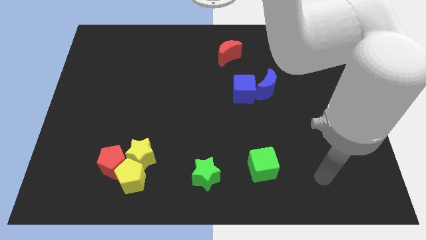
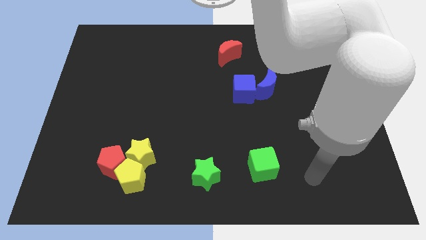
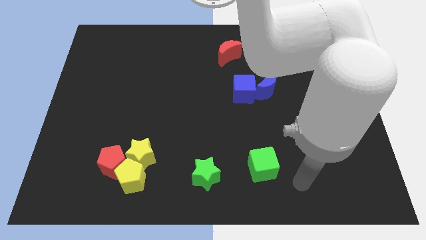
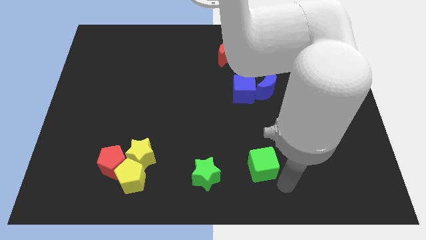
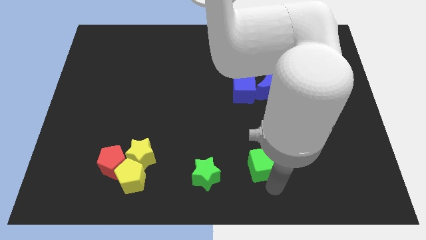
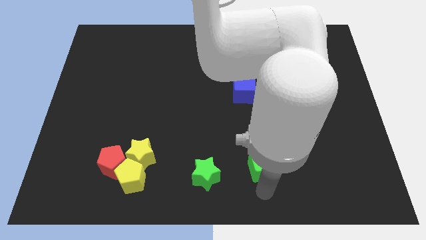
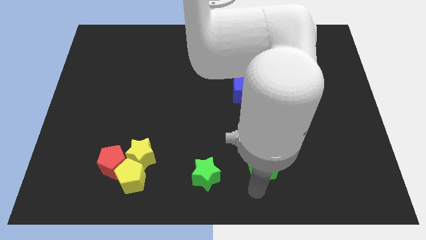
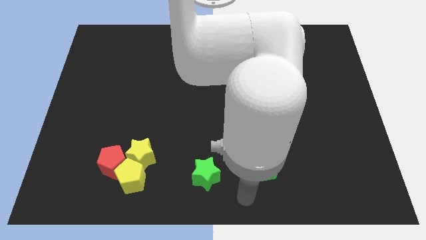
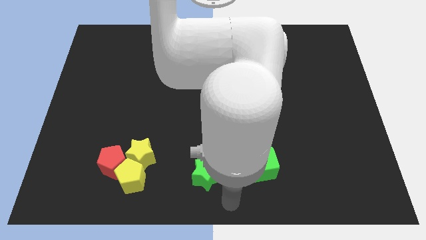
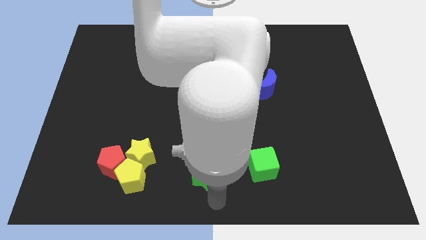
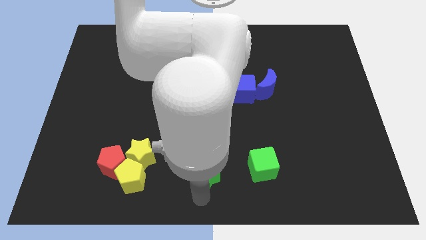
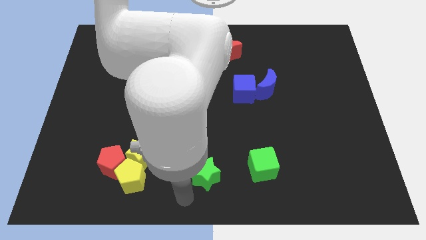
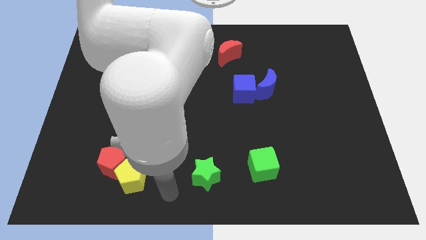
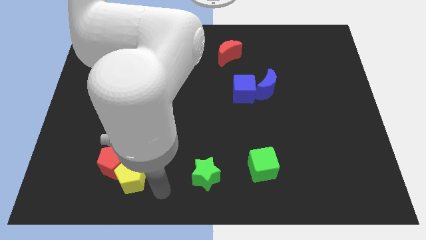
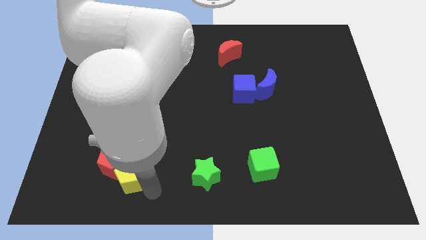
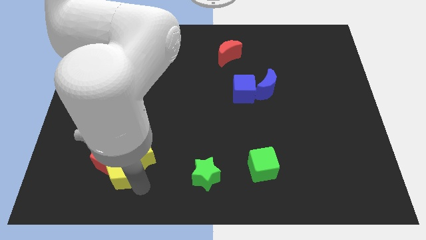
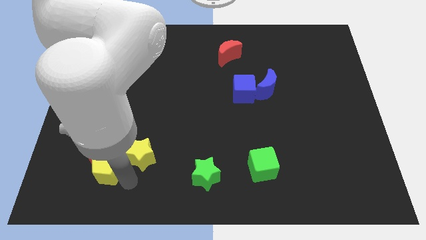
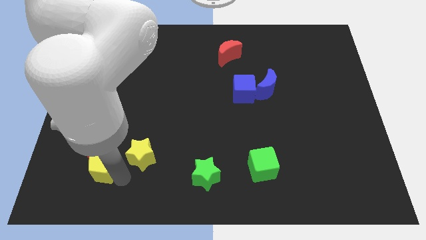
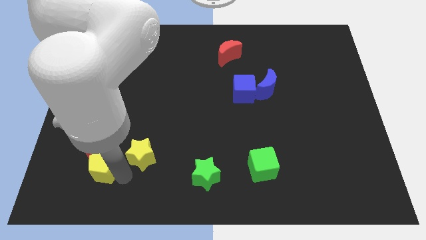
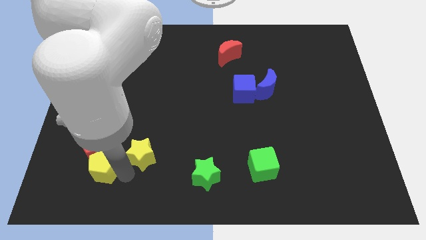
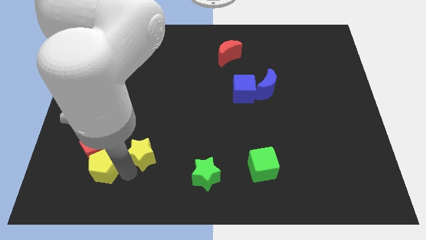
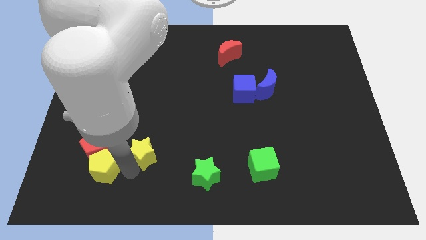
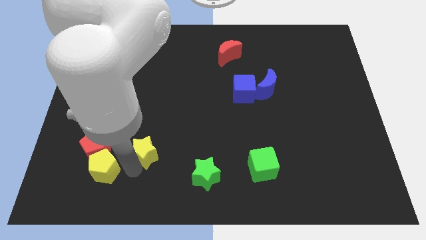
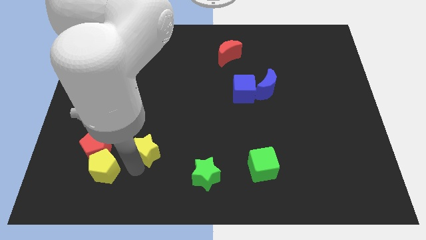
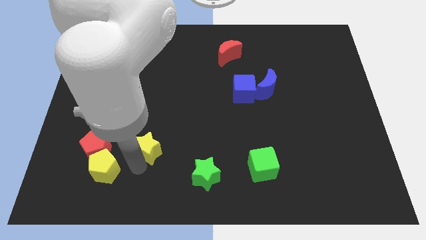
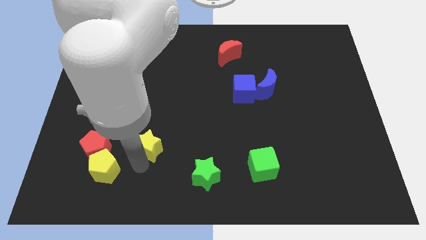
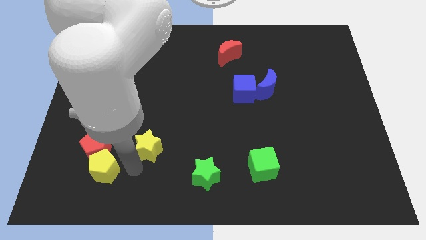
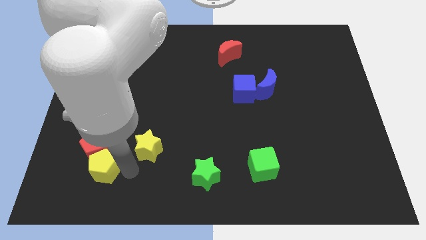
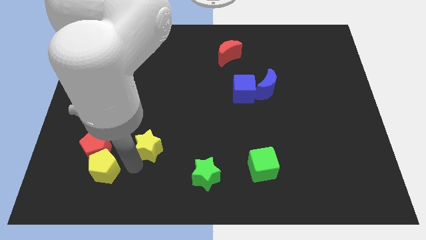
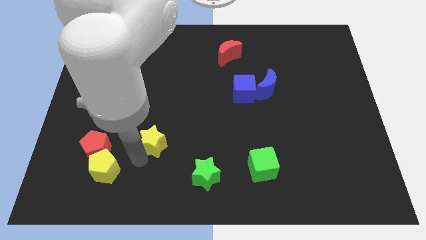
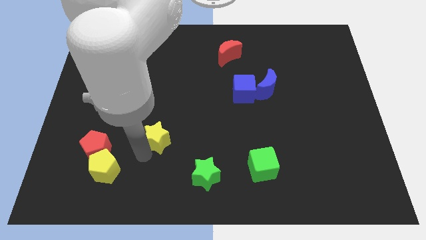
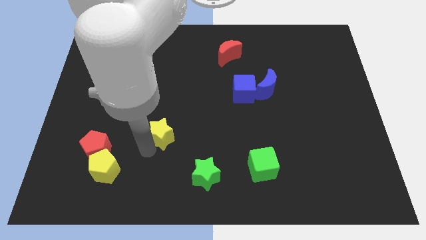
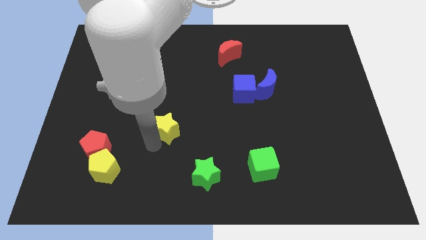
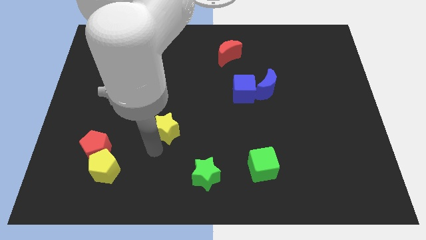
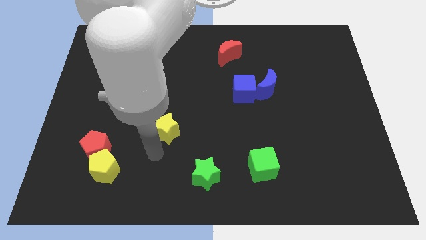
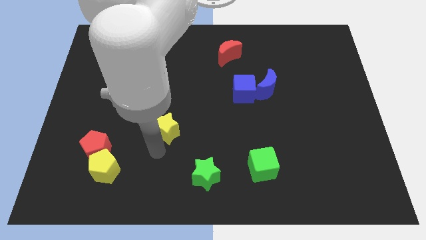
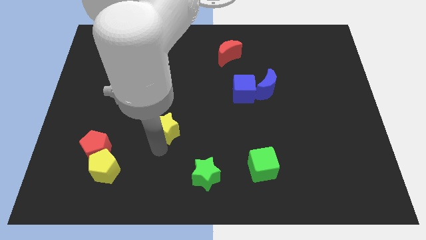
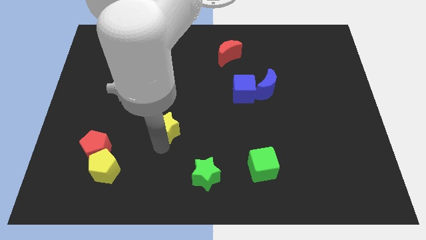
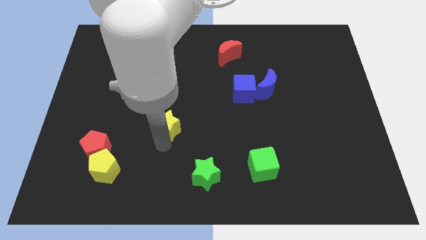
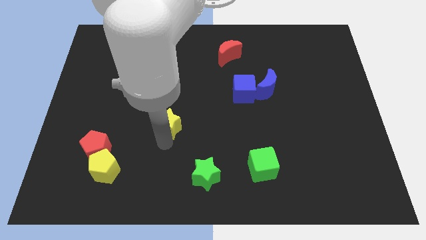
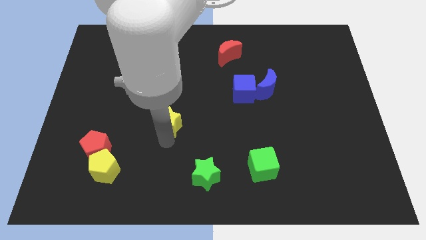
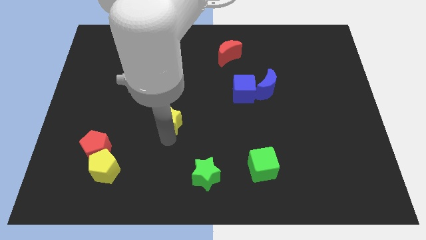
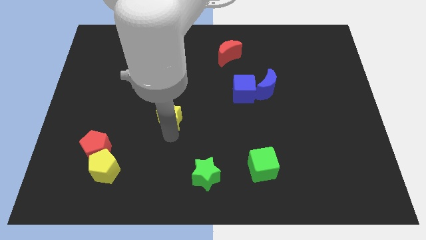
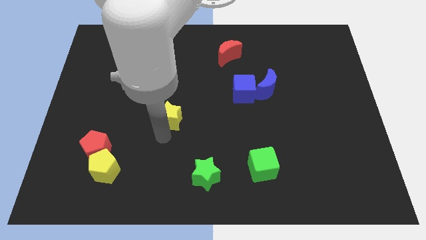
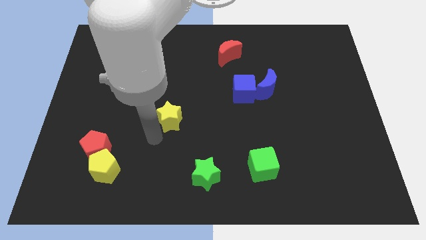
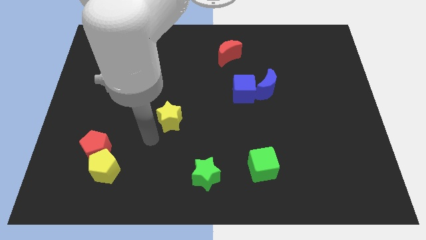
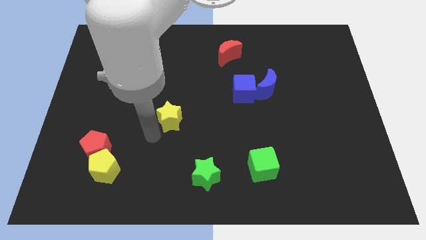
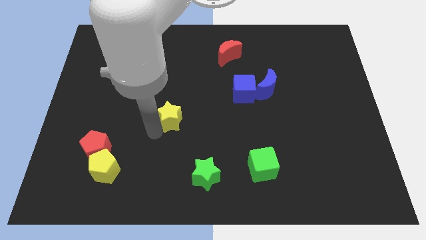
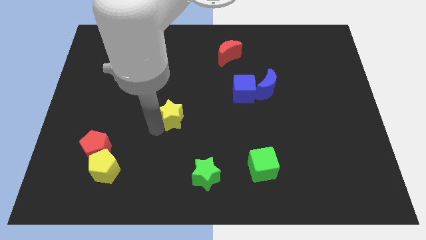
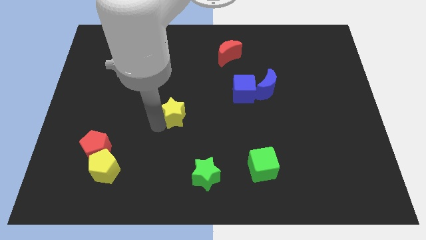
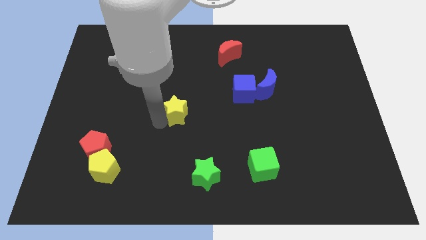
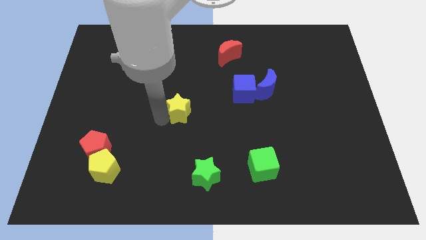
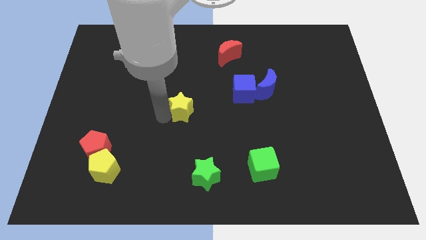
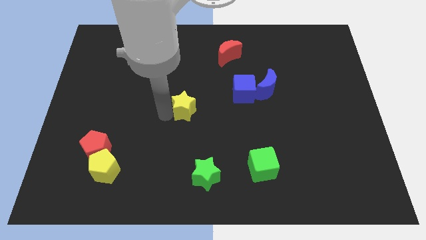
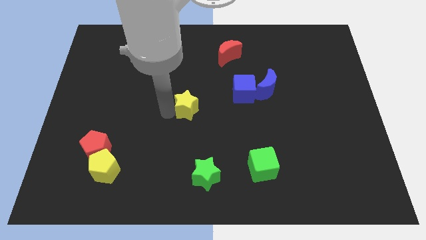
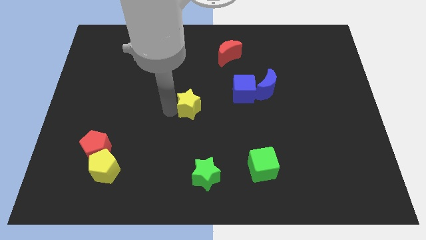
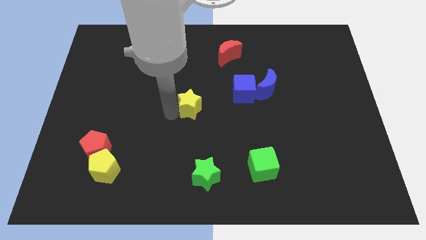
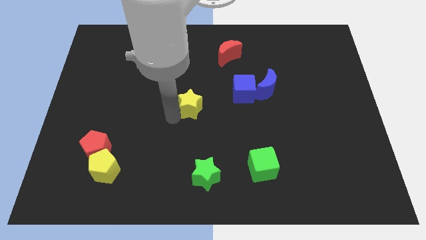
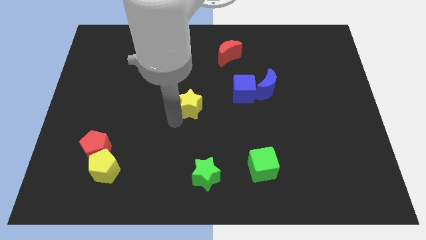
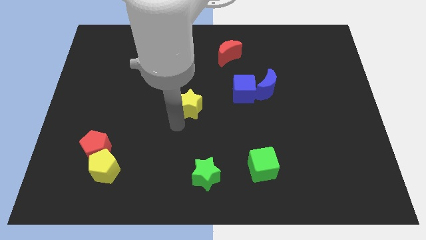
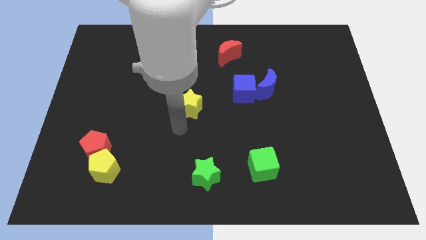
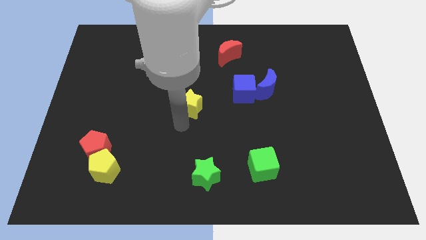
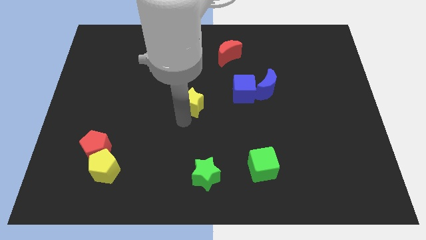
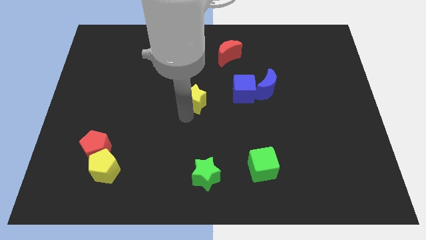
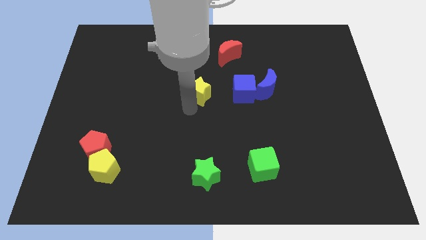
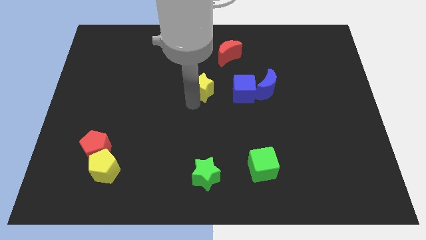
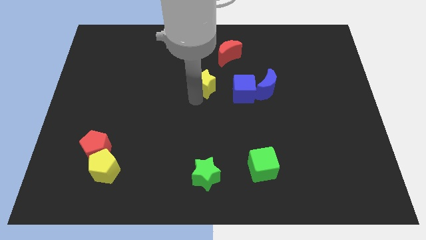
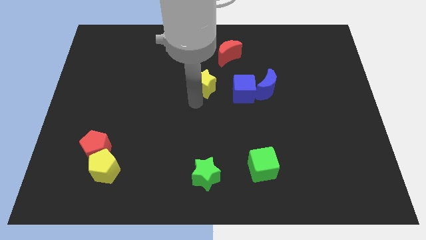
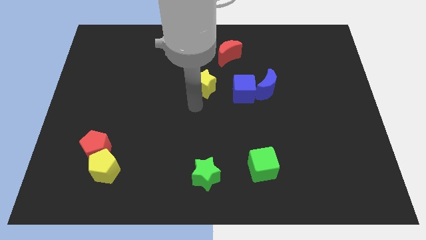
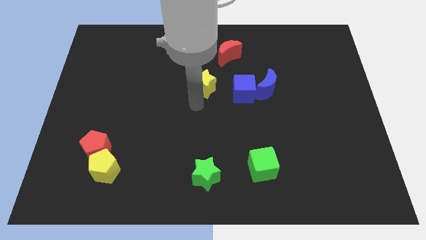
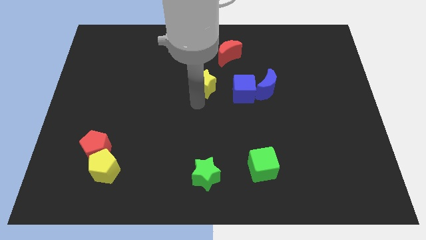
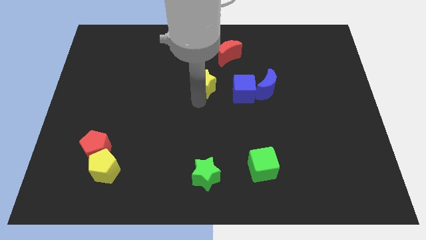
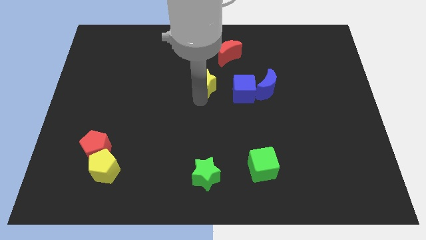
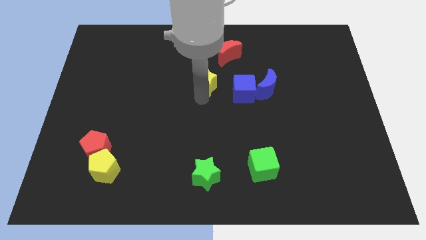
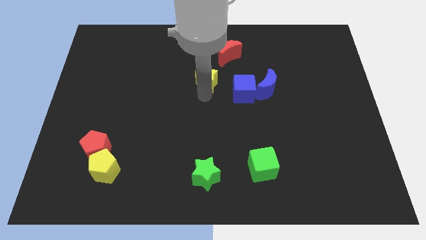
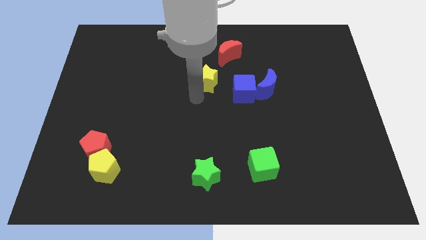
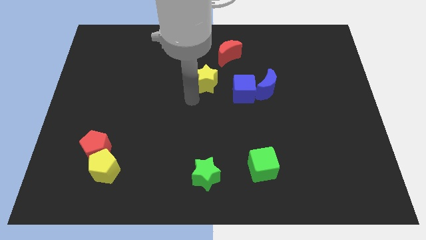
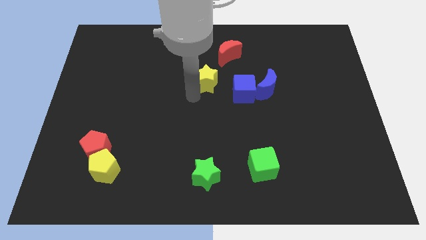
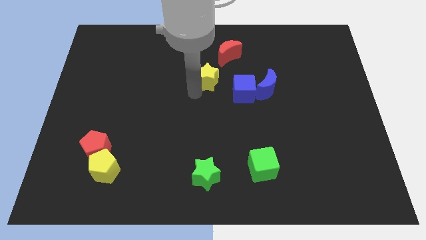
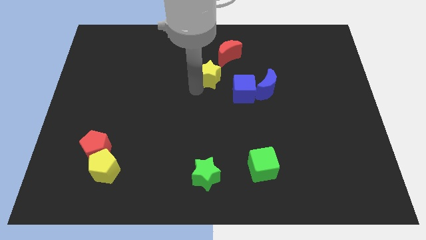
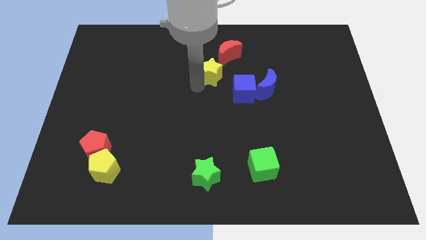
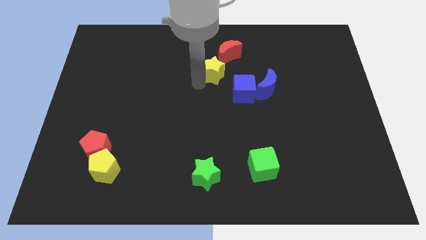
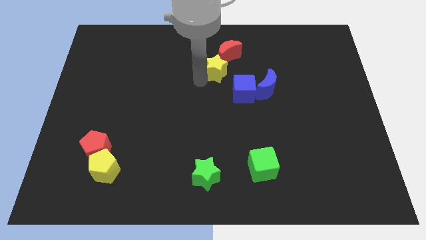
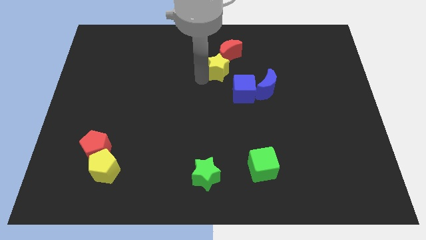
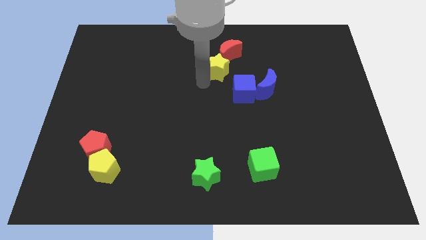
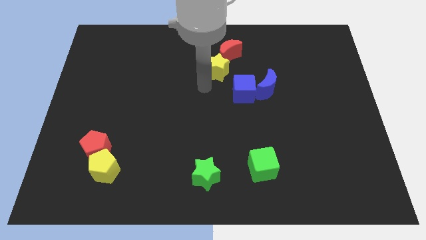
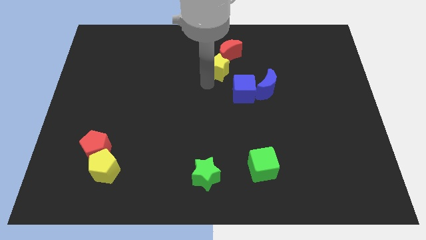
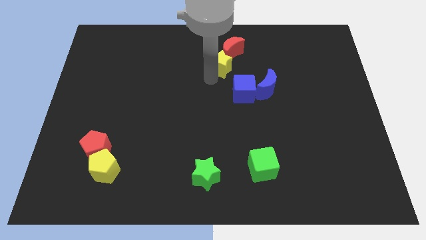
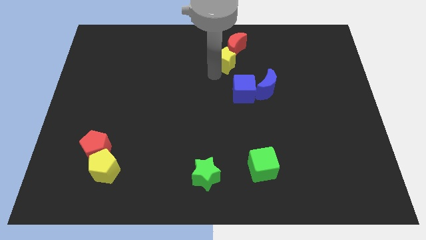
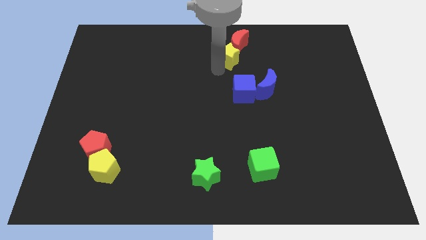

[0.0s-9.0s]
put the yellow star to the red moon
